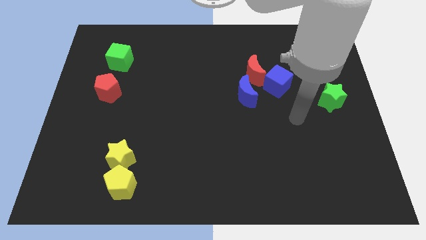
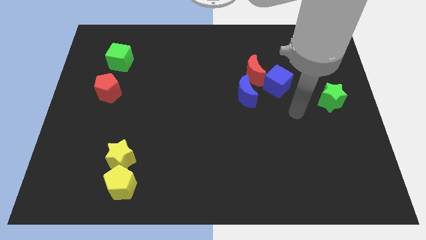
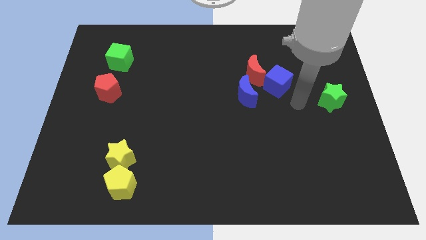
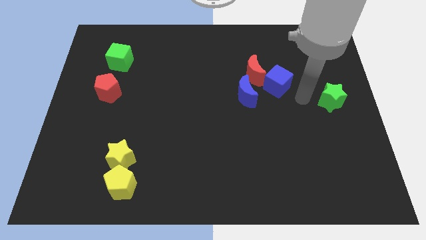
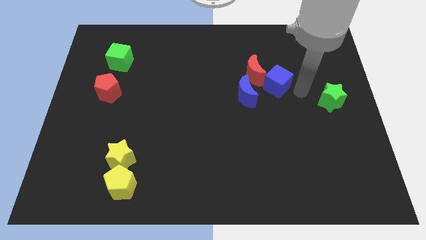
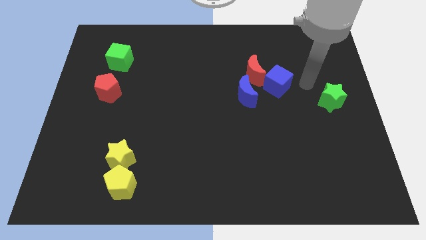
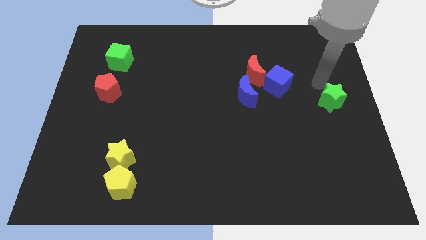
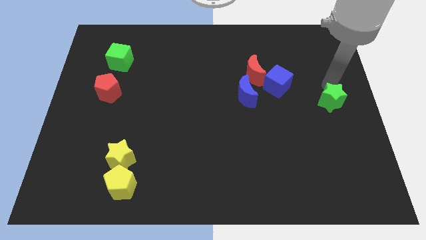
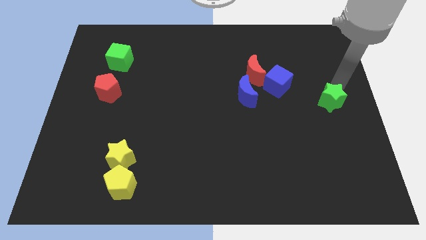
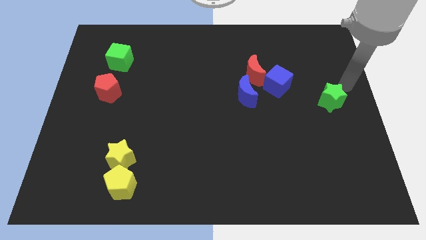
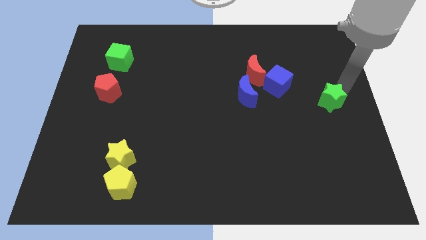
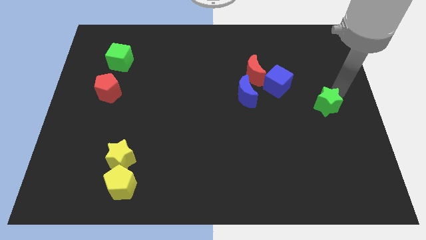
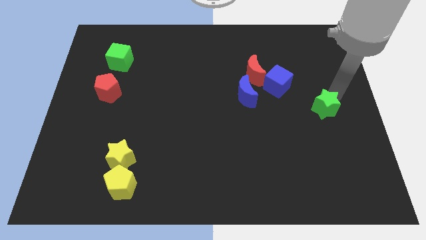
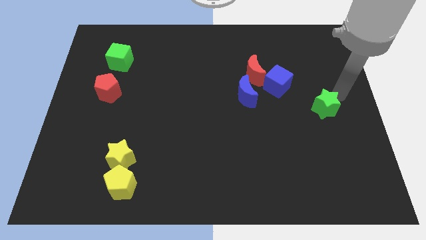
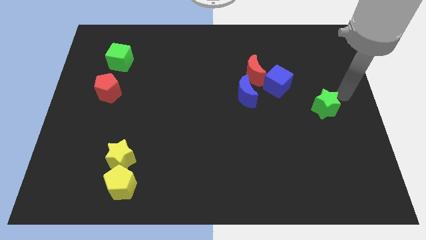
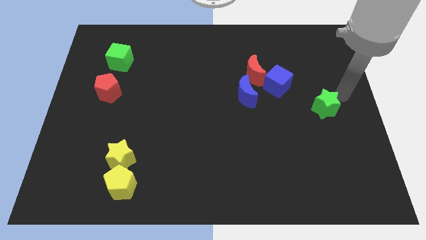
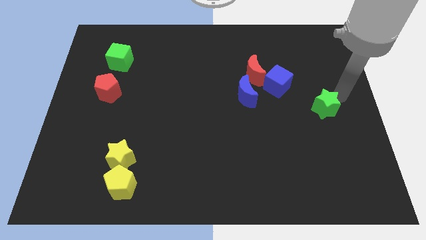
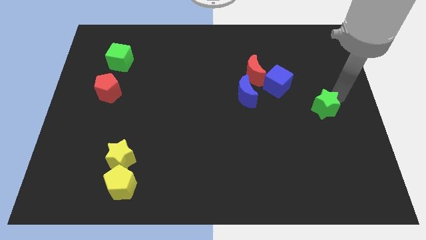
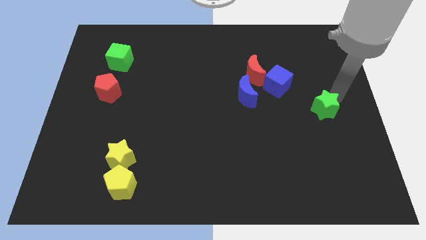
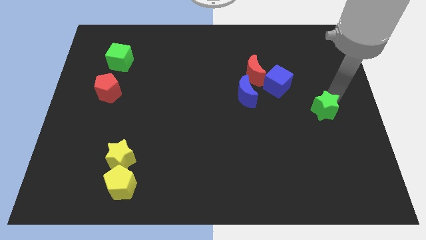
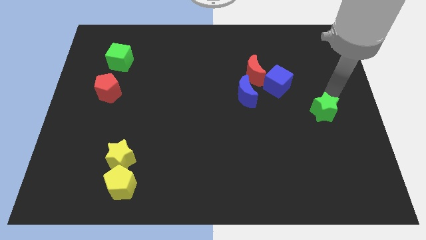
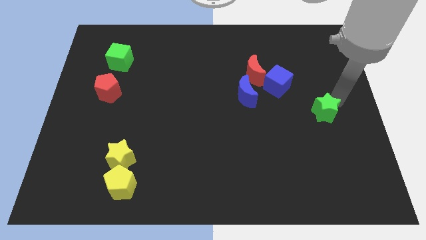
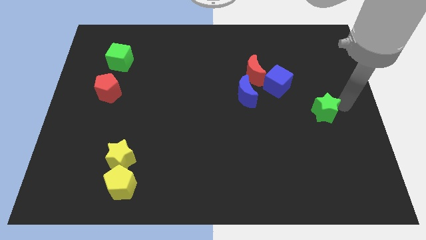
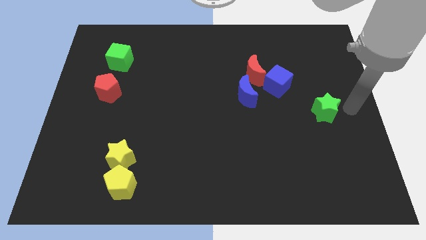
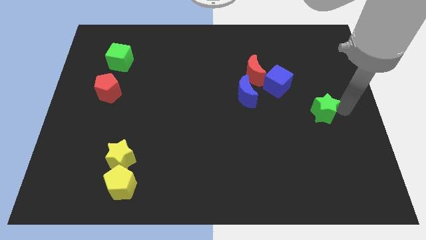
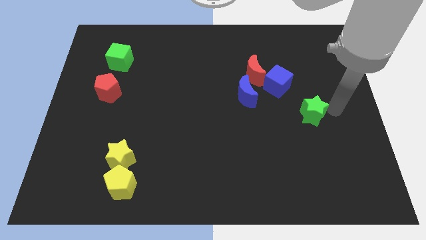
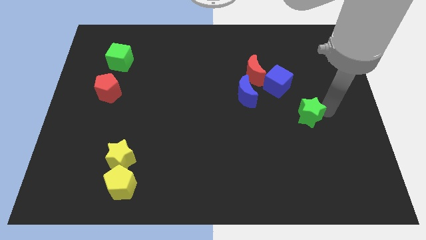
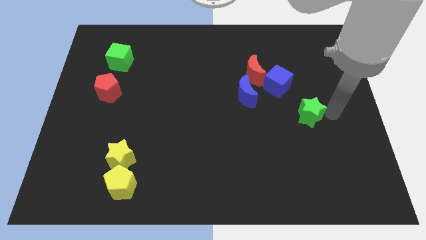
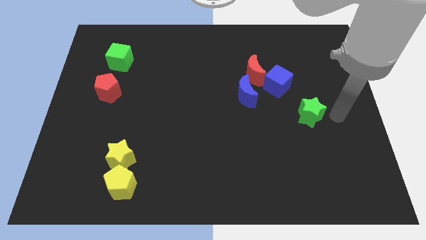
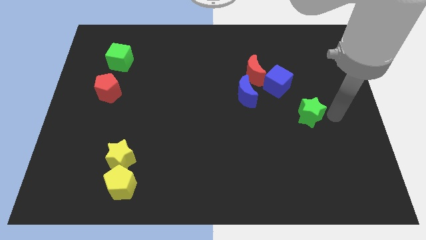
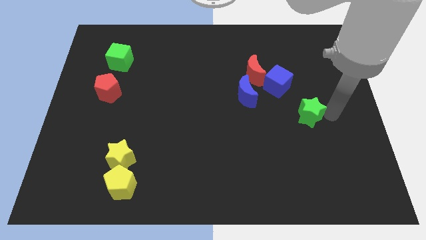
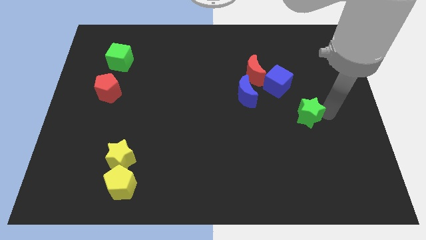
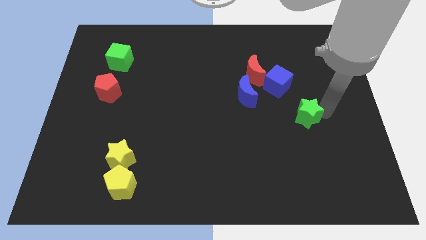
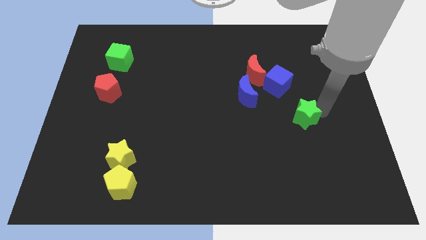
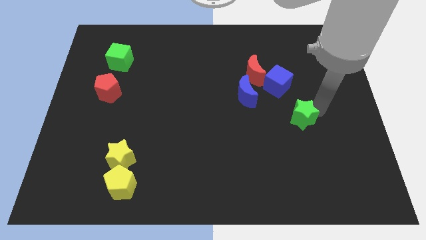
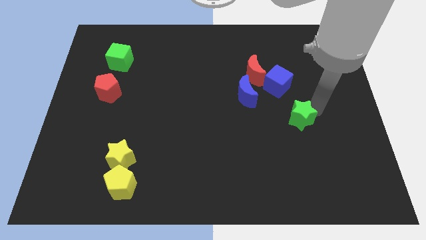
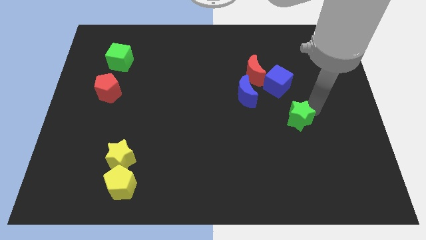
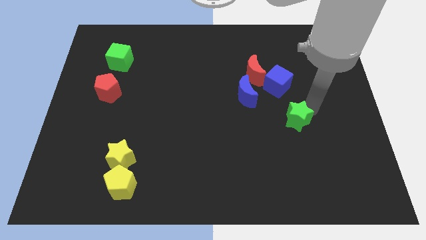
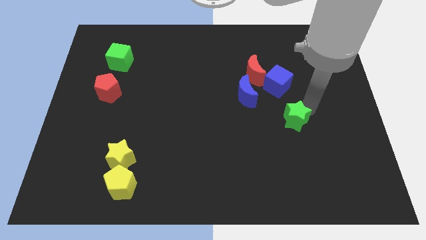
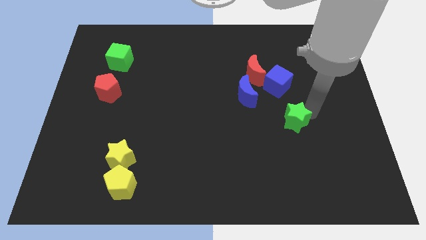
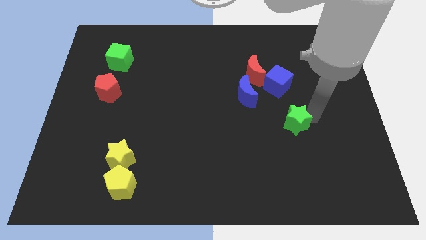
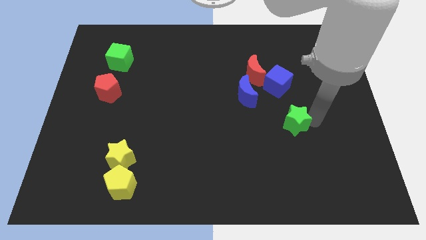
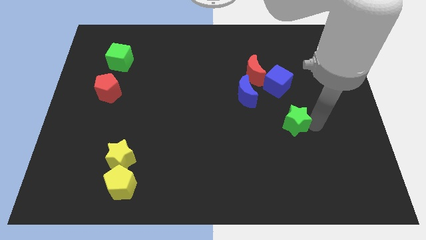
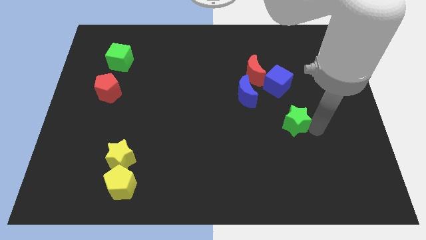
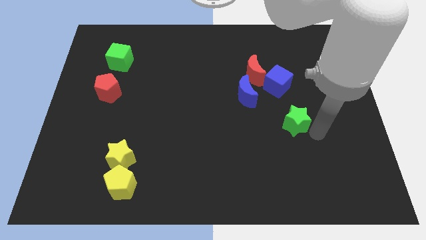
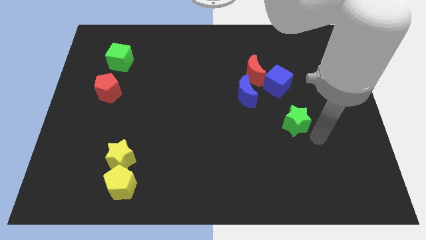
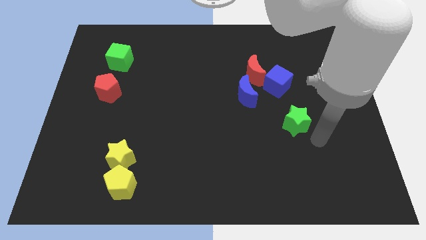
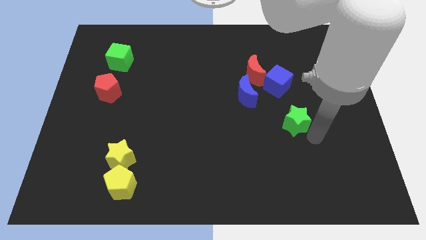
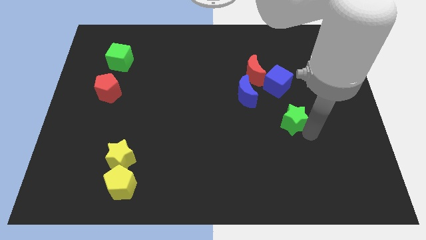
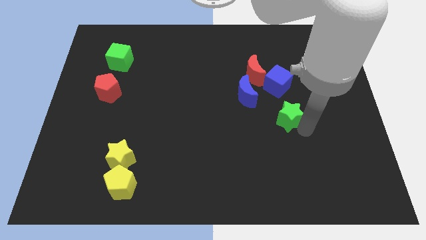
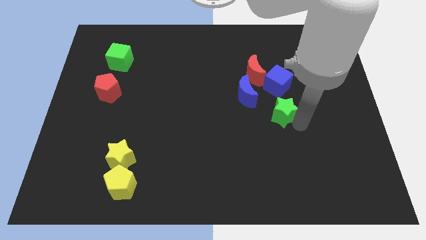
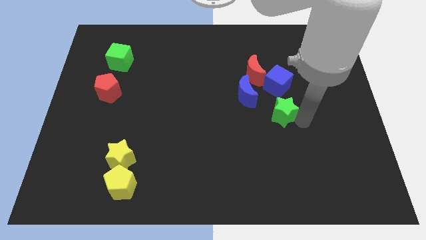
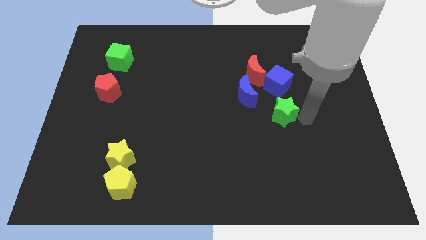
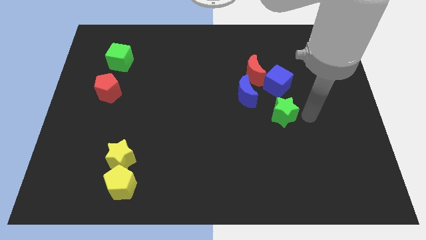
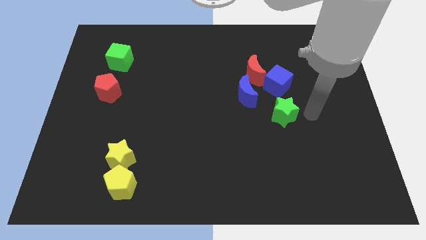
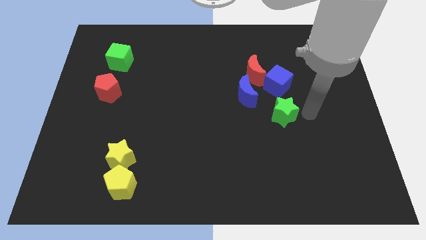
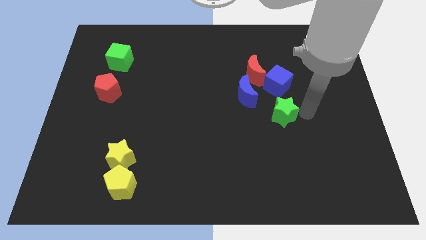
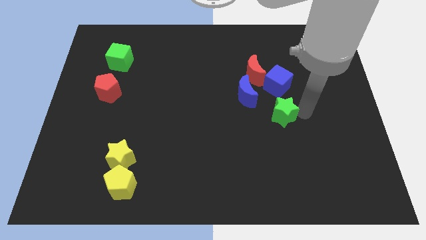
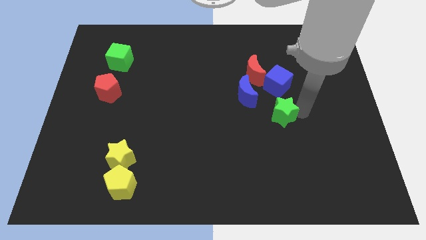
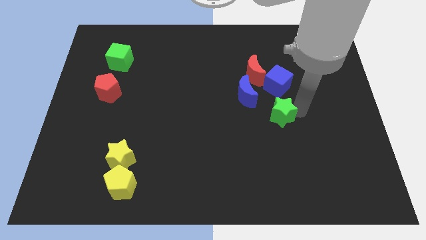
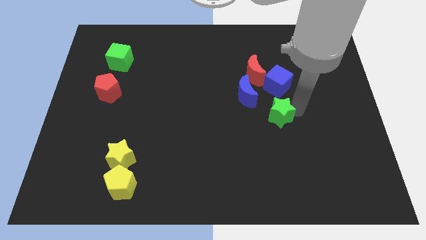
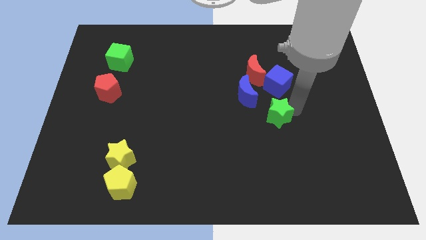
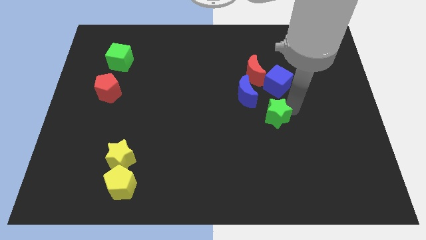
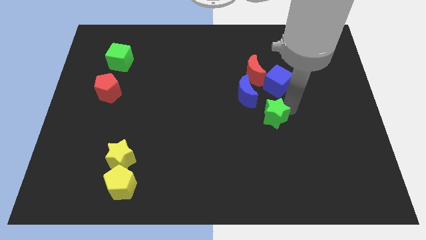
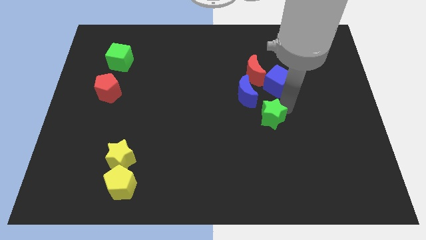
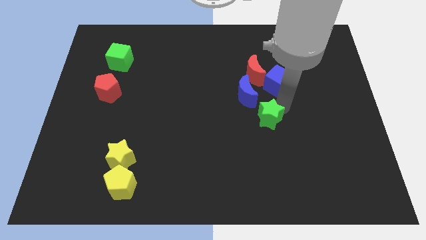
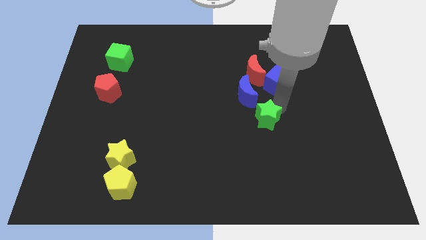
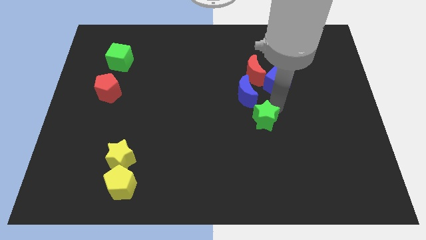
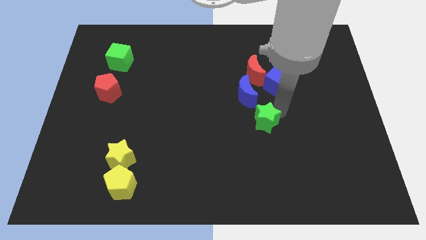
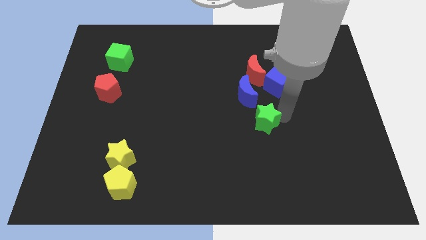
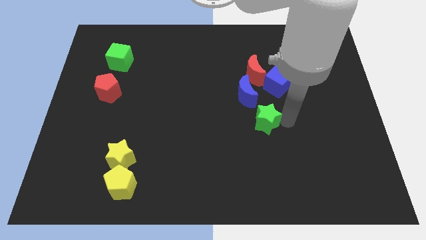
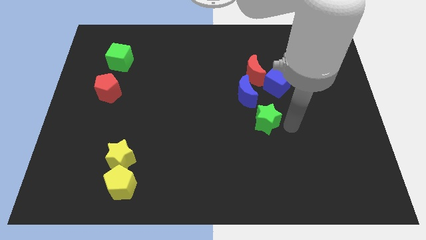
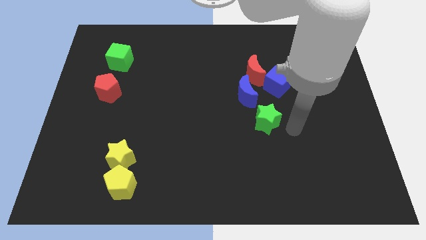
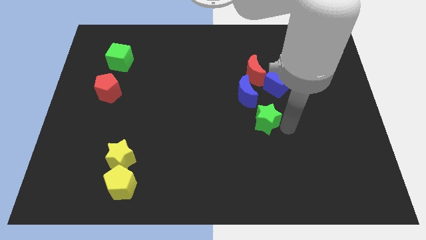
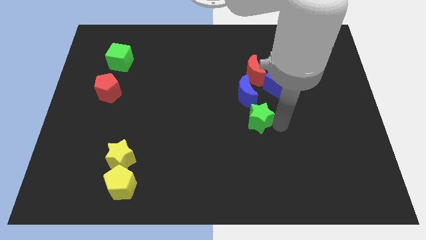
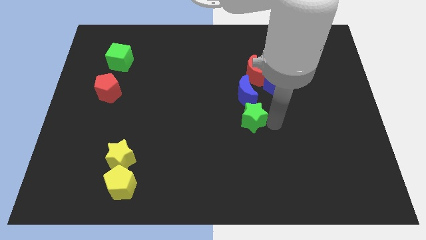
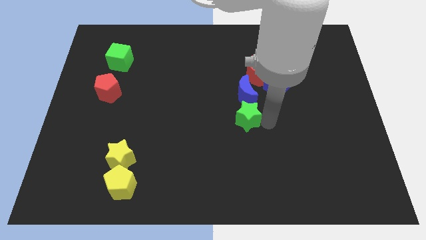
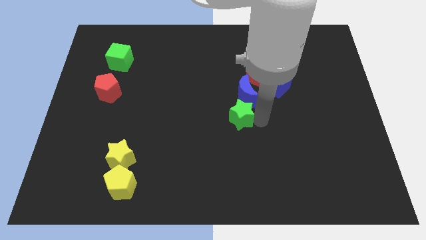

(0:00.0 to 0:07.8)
slide the green star left

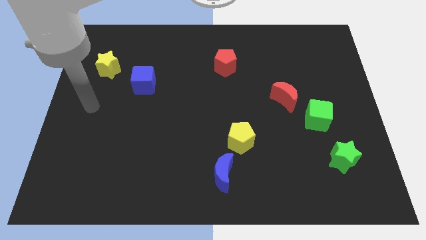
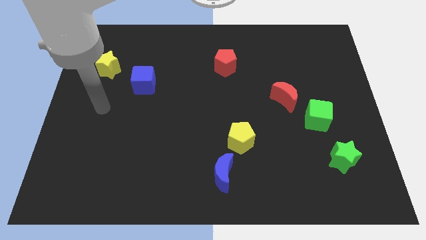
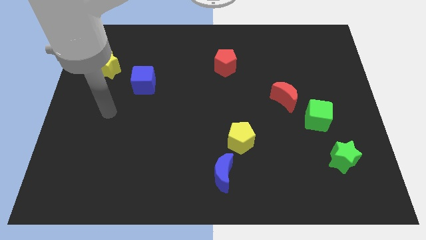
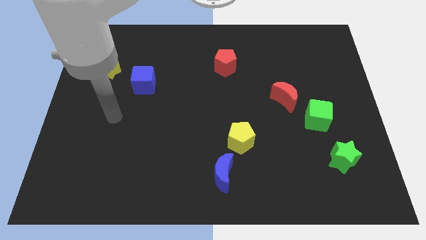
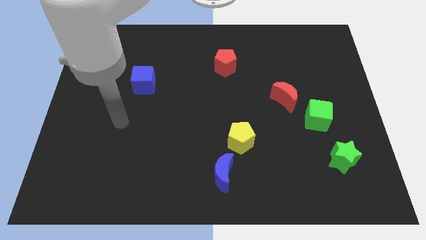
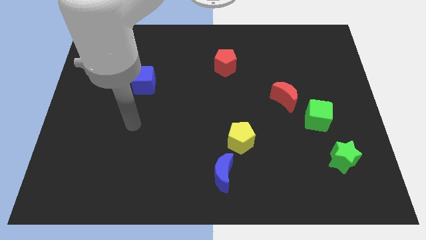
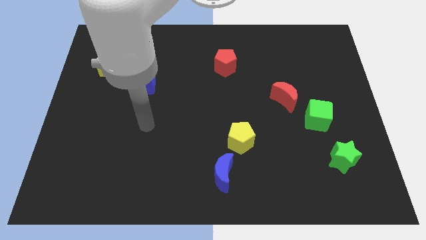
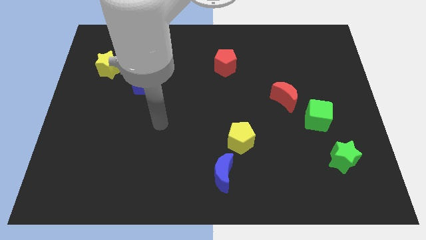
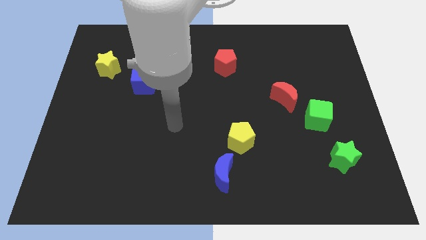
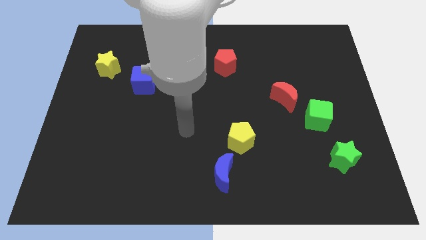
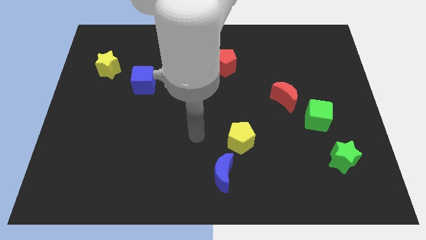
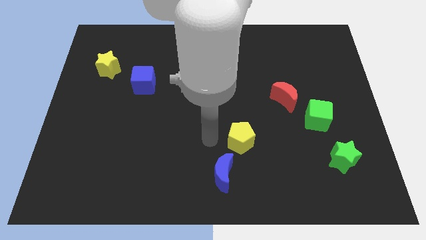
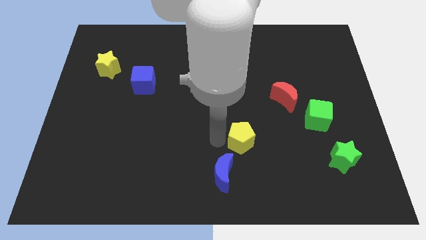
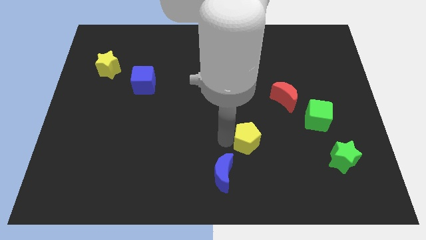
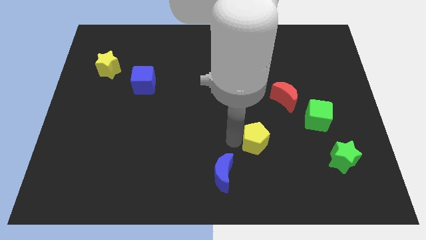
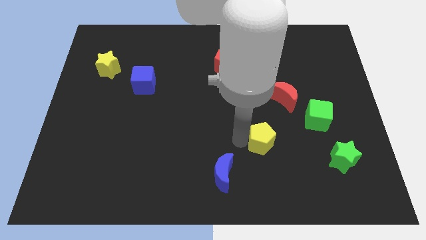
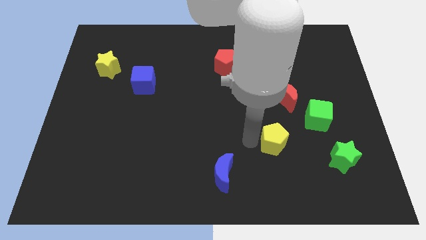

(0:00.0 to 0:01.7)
slide the yellow pentagon a little bit to the right
